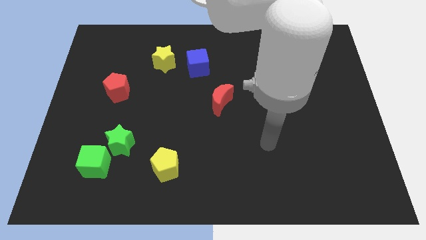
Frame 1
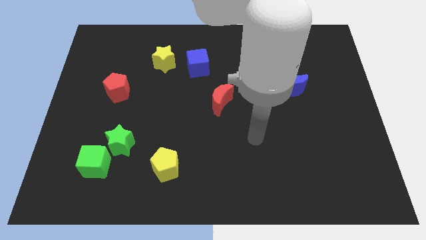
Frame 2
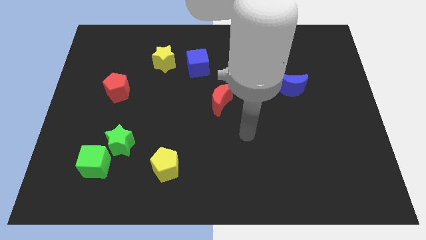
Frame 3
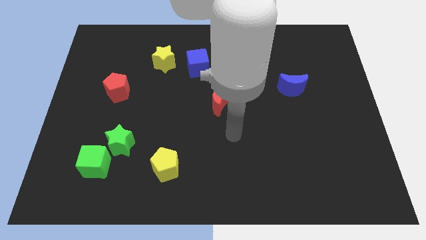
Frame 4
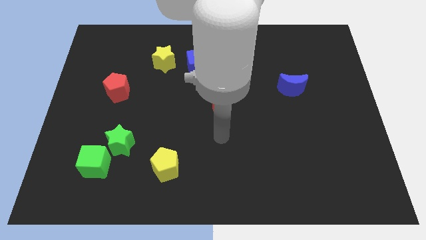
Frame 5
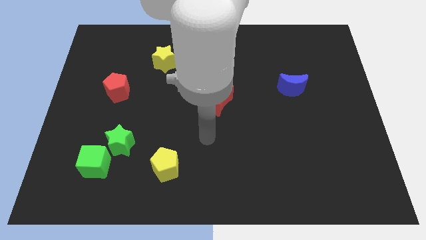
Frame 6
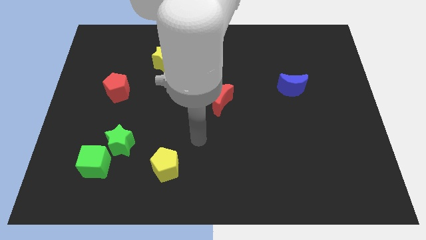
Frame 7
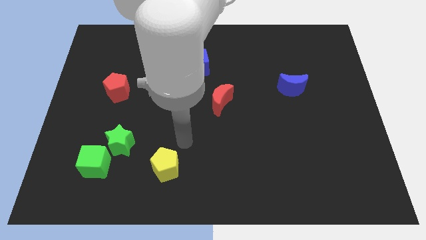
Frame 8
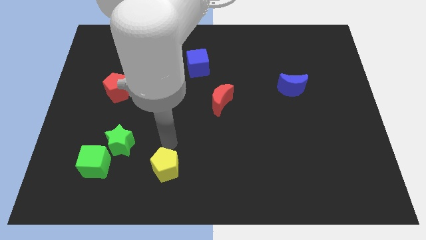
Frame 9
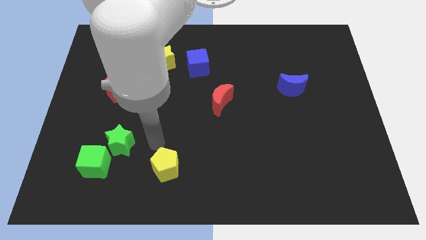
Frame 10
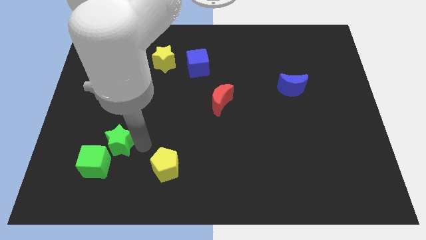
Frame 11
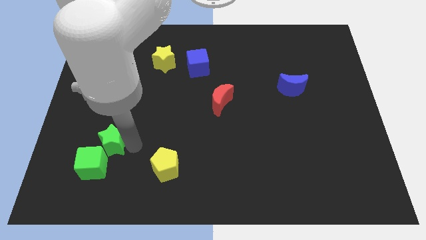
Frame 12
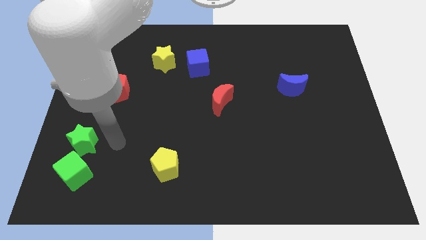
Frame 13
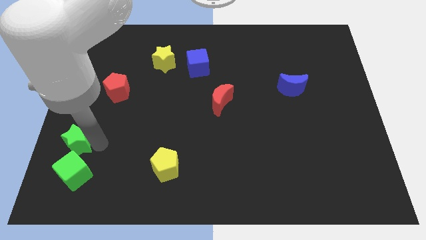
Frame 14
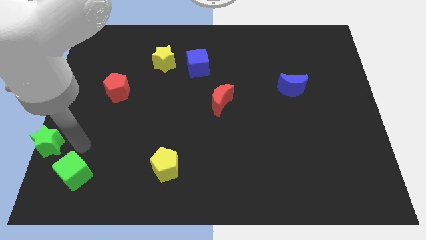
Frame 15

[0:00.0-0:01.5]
pull the green cube apart from the green star

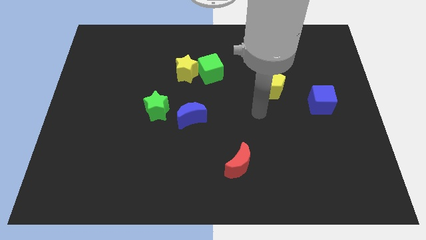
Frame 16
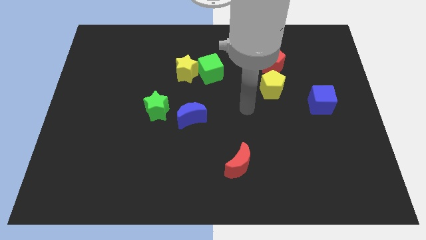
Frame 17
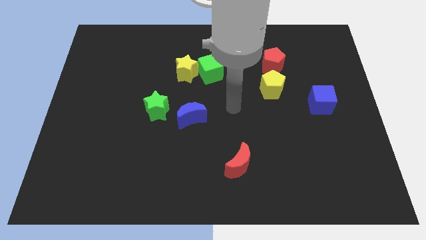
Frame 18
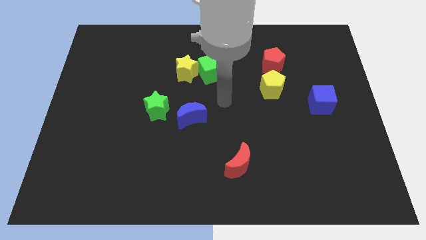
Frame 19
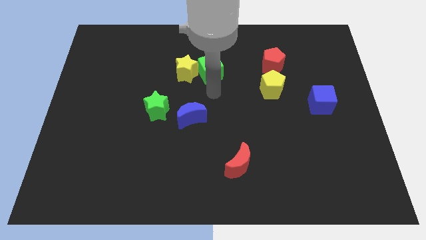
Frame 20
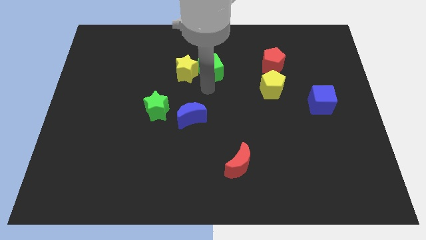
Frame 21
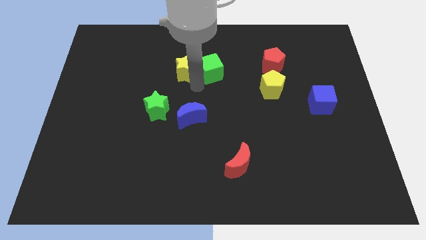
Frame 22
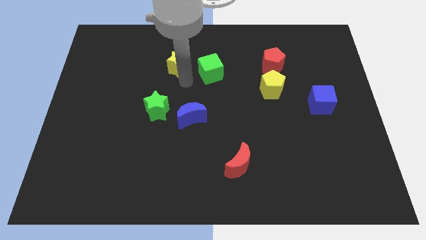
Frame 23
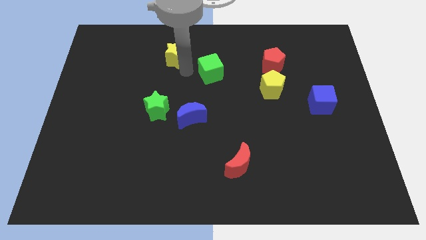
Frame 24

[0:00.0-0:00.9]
move the green cube away from the yellow star

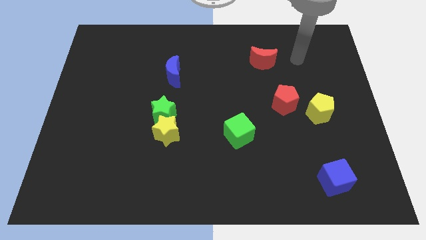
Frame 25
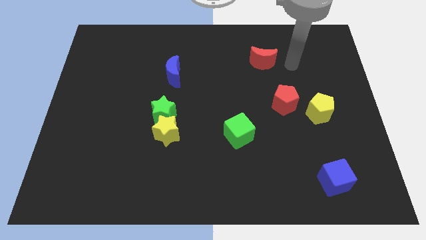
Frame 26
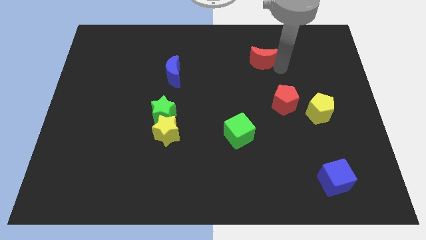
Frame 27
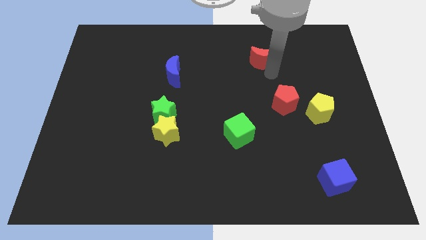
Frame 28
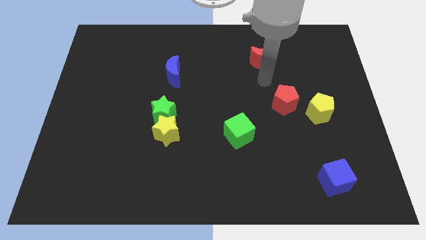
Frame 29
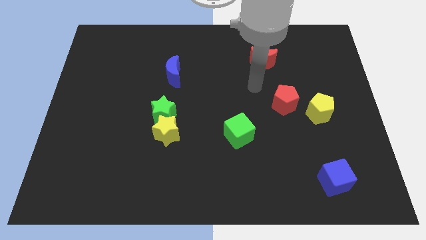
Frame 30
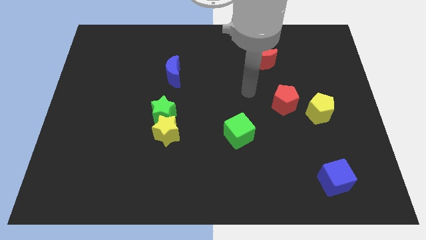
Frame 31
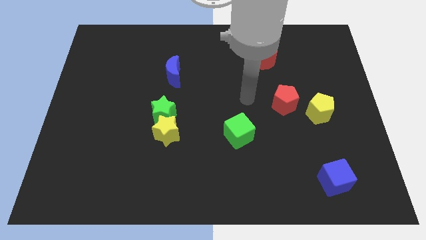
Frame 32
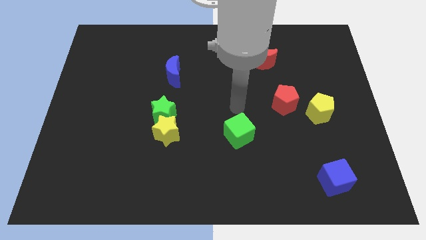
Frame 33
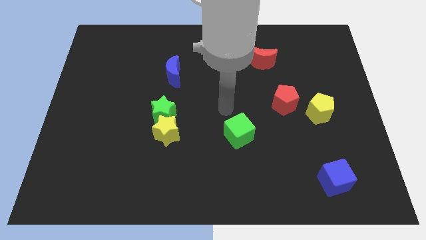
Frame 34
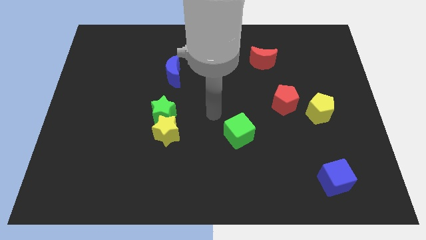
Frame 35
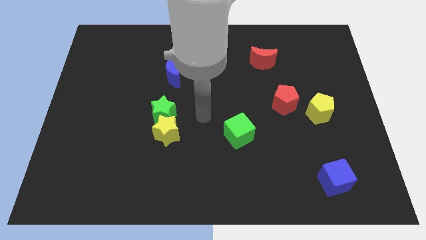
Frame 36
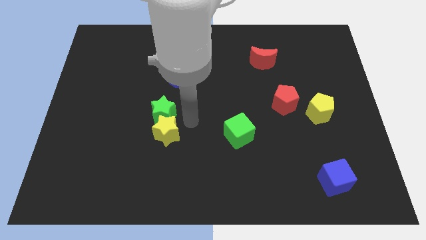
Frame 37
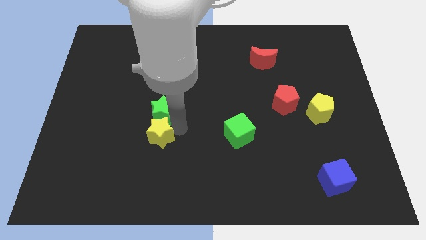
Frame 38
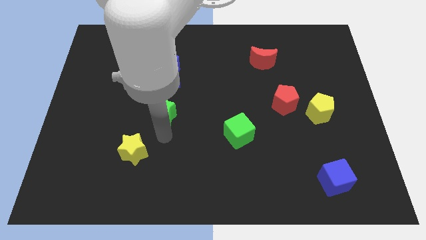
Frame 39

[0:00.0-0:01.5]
separate the green star from the yellow star

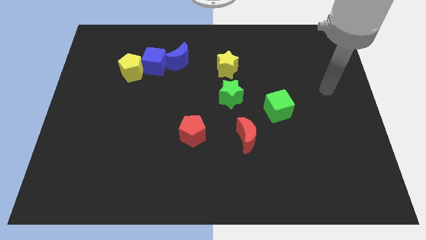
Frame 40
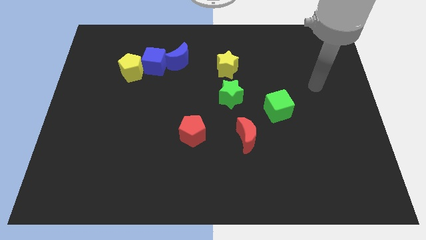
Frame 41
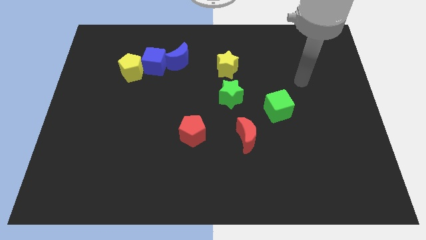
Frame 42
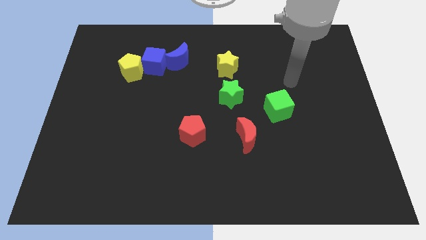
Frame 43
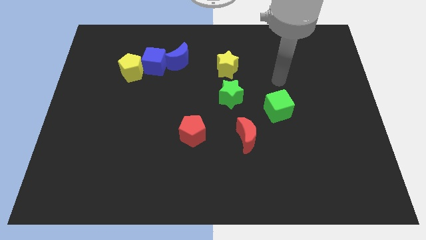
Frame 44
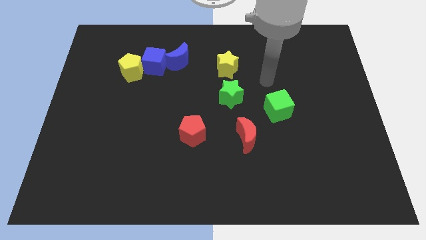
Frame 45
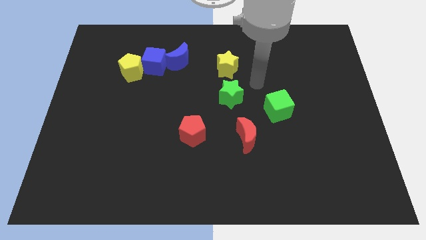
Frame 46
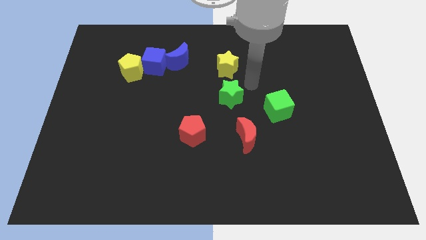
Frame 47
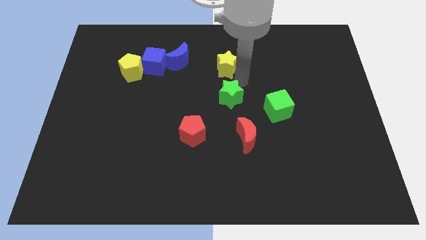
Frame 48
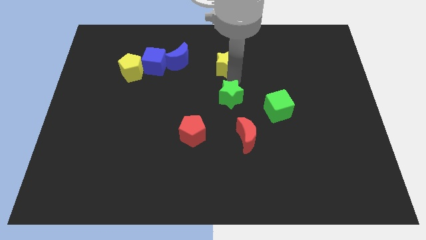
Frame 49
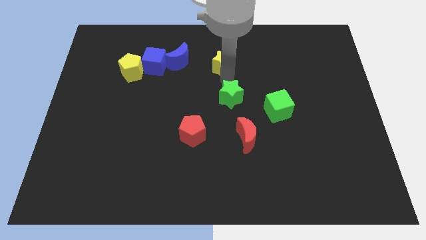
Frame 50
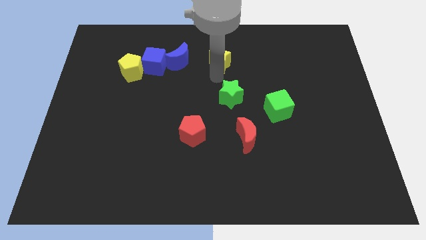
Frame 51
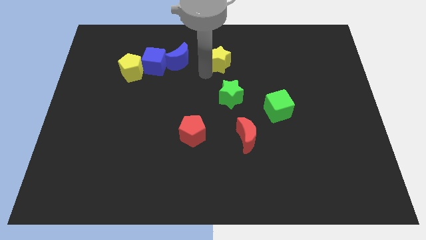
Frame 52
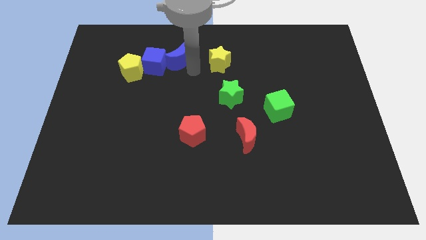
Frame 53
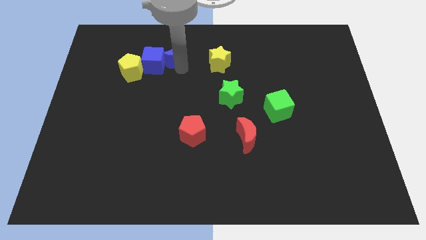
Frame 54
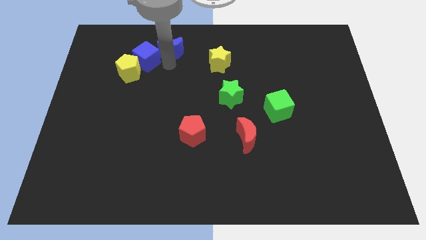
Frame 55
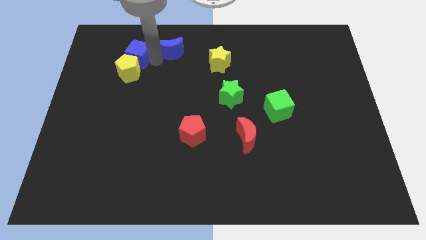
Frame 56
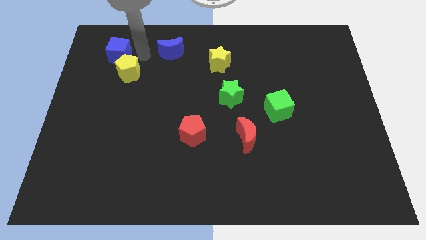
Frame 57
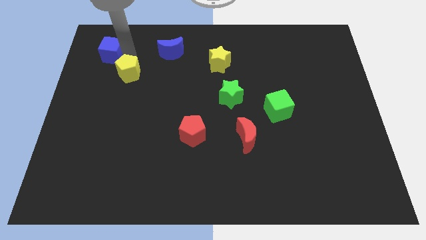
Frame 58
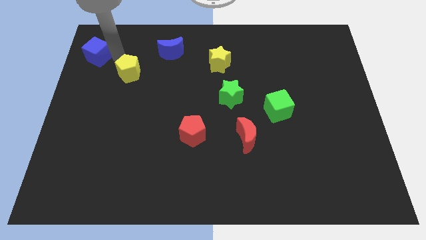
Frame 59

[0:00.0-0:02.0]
move the yellow pentagon away from the blue cube

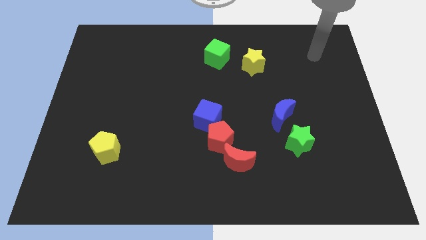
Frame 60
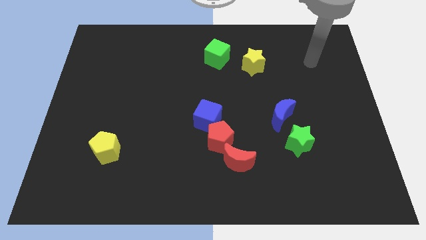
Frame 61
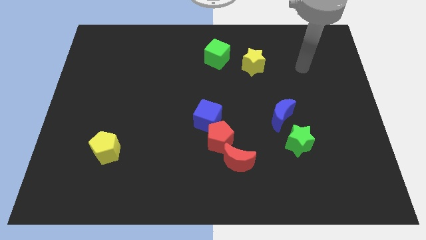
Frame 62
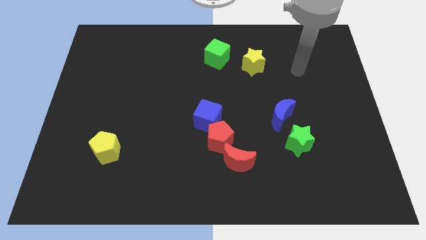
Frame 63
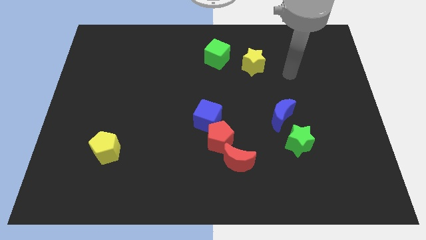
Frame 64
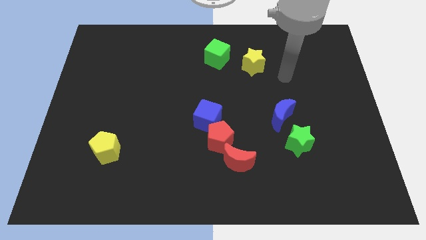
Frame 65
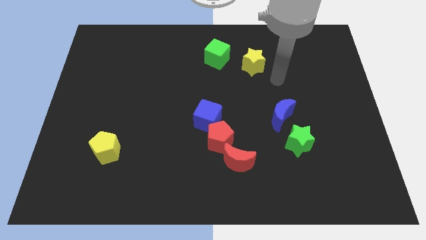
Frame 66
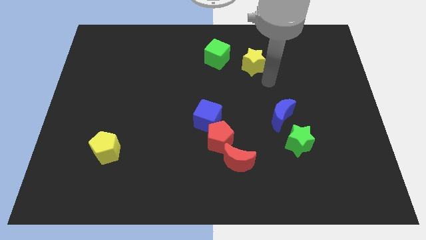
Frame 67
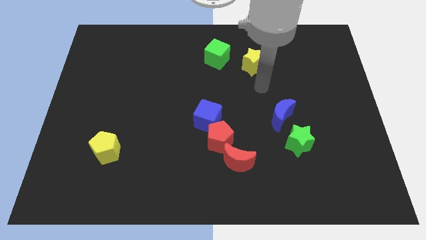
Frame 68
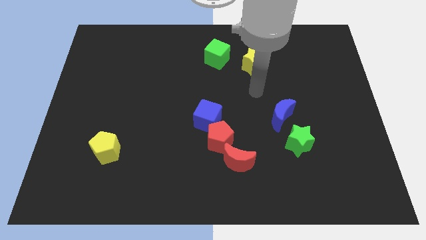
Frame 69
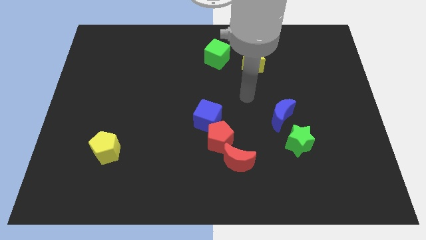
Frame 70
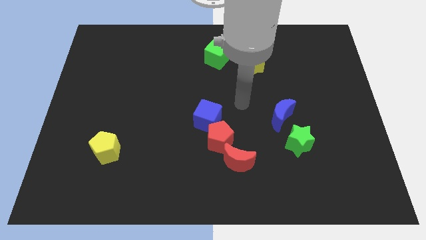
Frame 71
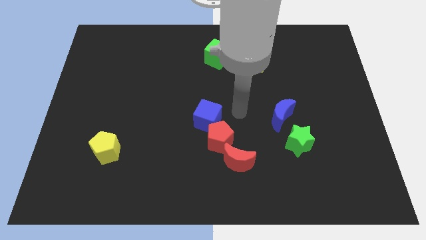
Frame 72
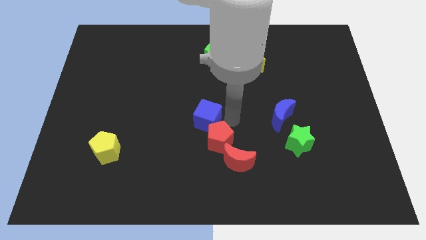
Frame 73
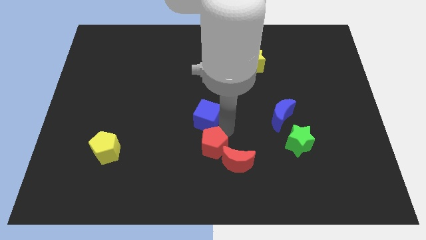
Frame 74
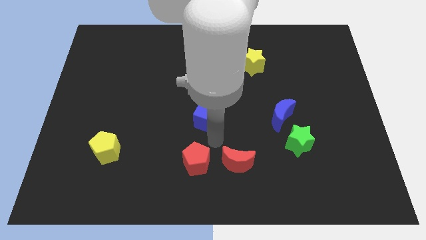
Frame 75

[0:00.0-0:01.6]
move the blue cube away from the red pentagon

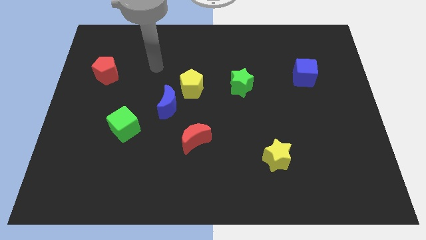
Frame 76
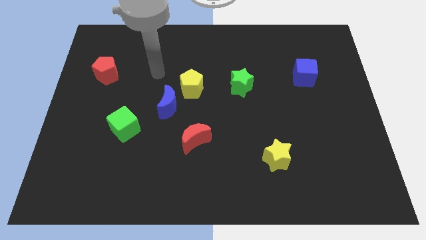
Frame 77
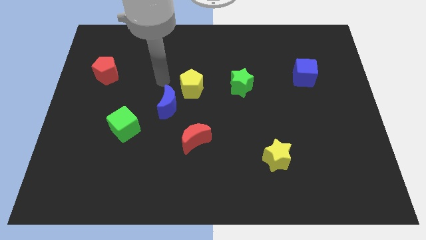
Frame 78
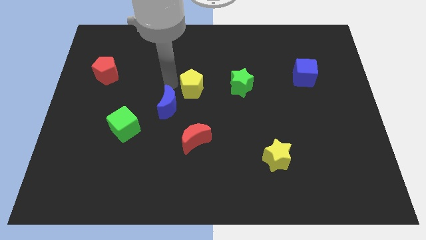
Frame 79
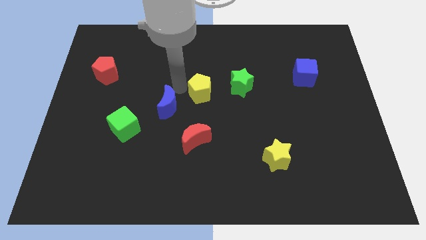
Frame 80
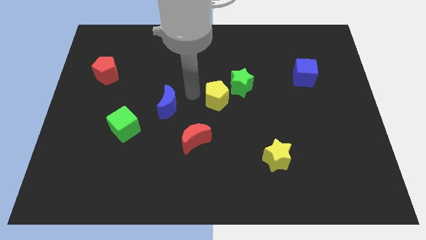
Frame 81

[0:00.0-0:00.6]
pull the blue moon apart from the yellow pentagon

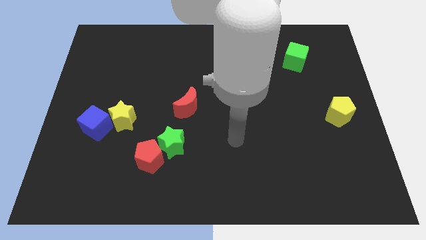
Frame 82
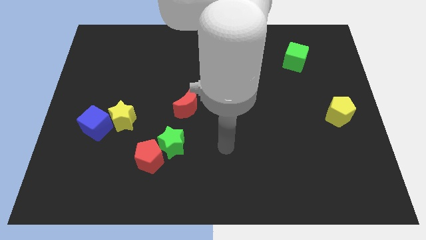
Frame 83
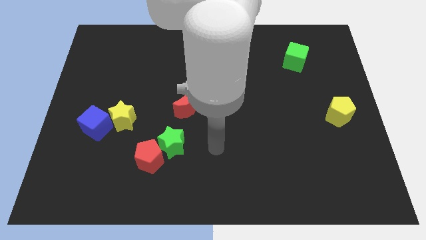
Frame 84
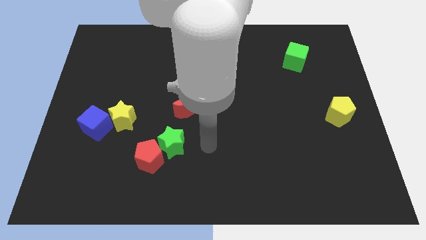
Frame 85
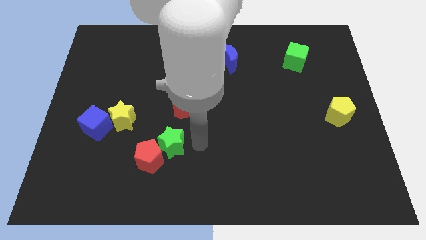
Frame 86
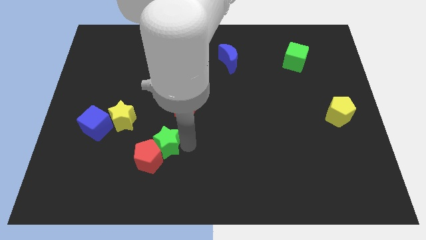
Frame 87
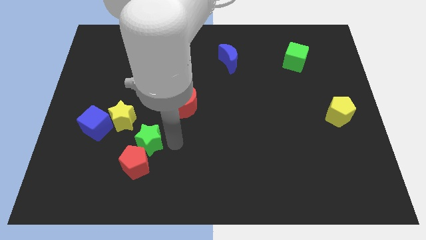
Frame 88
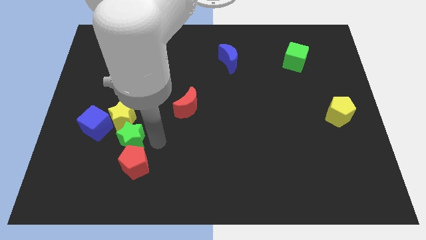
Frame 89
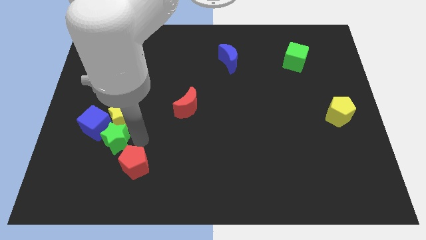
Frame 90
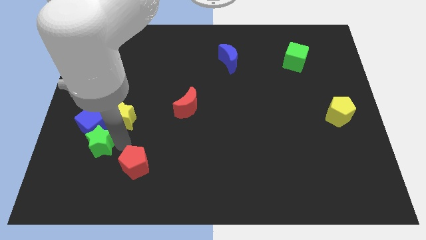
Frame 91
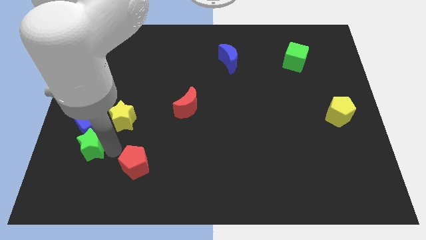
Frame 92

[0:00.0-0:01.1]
separate the red pentagon from the green star
